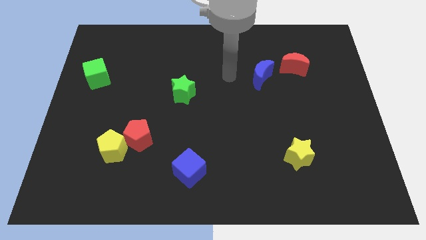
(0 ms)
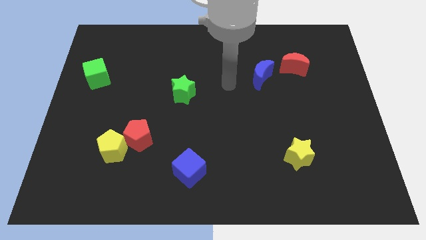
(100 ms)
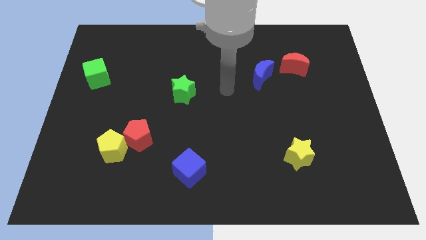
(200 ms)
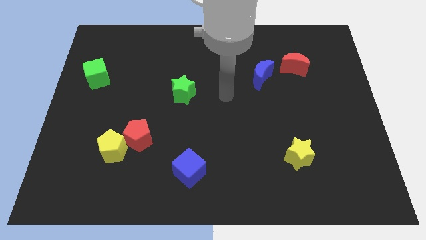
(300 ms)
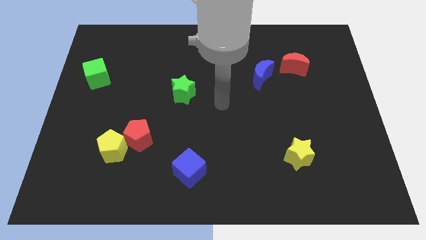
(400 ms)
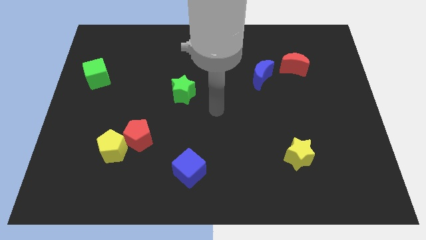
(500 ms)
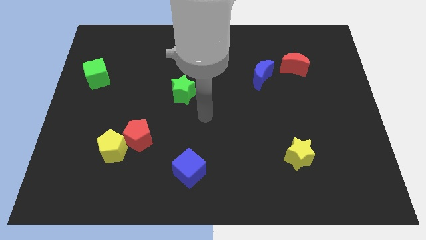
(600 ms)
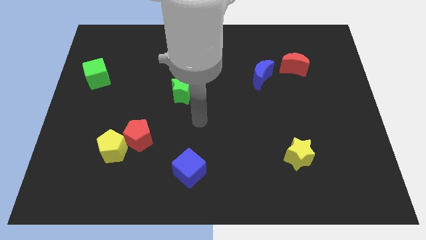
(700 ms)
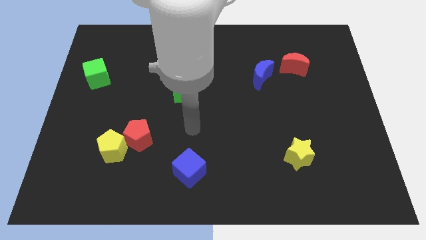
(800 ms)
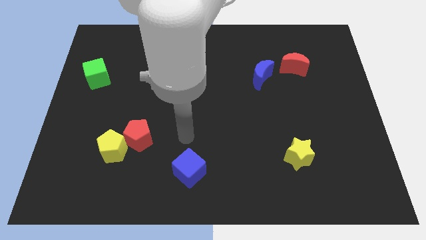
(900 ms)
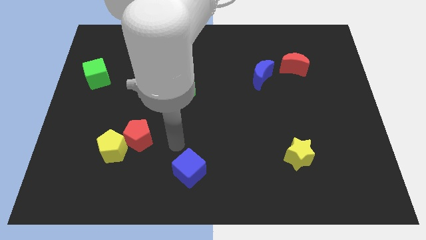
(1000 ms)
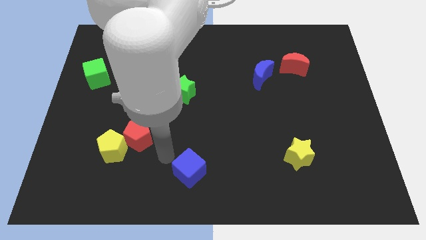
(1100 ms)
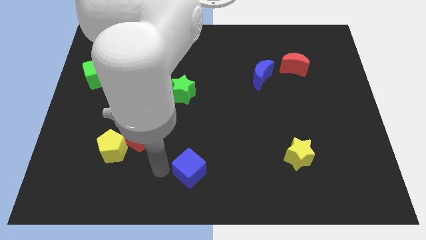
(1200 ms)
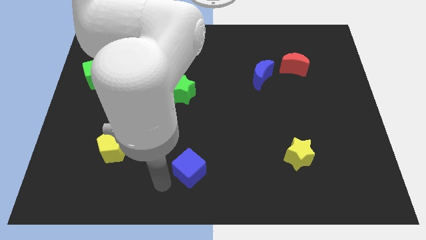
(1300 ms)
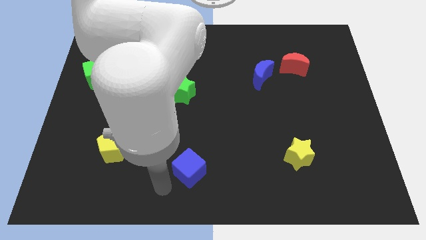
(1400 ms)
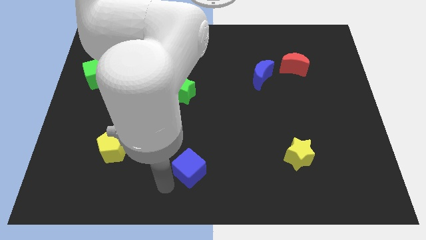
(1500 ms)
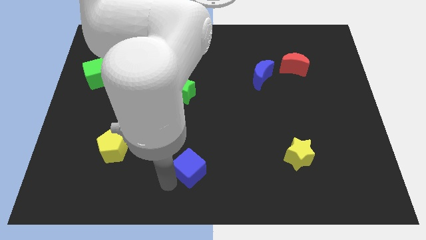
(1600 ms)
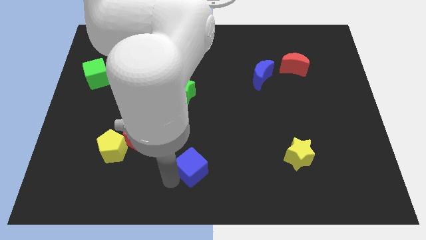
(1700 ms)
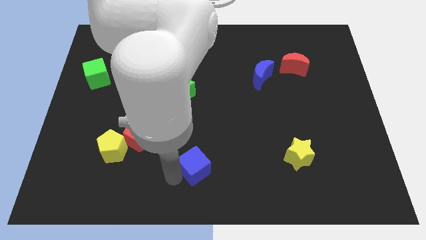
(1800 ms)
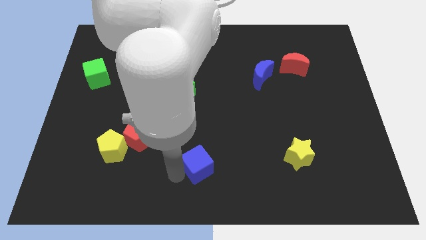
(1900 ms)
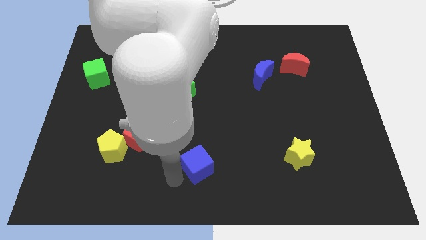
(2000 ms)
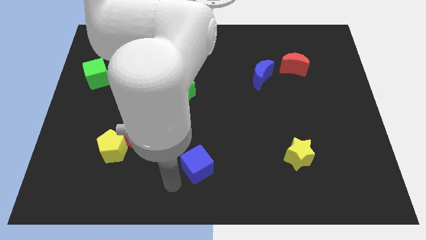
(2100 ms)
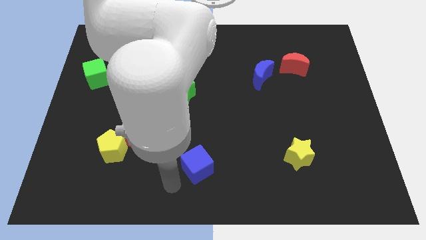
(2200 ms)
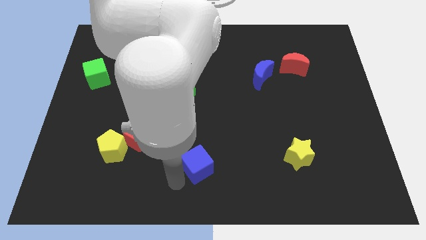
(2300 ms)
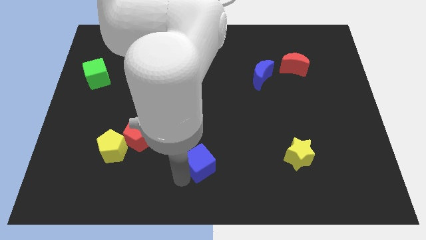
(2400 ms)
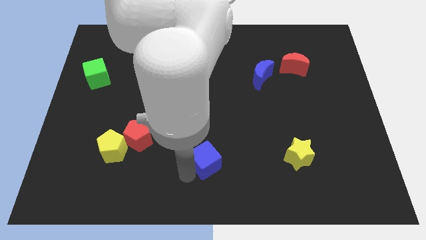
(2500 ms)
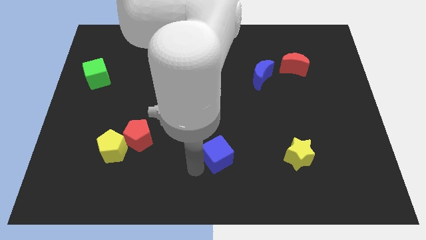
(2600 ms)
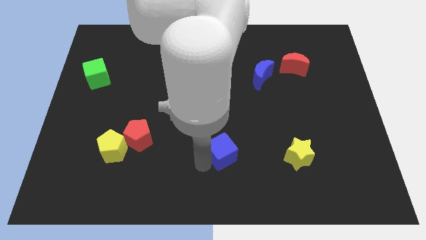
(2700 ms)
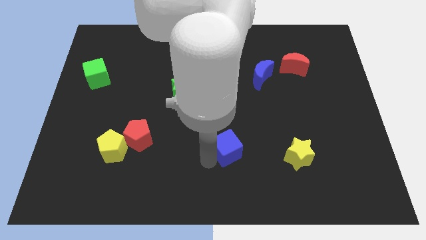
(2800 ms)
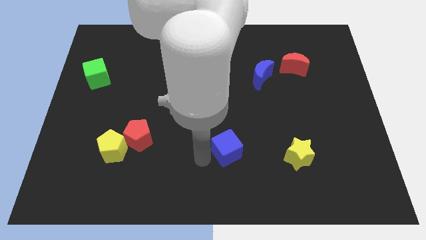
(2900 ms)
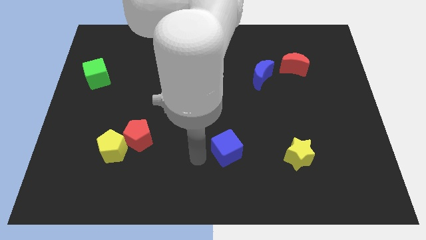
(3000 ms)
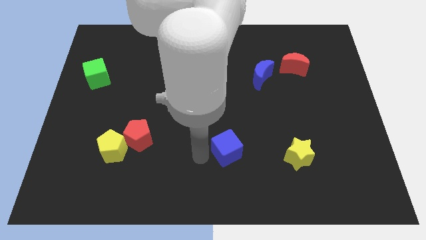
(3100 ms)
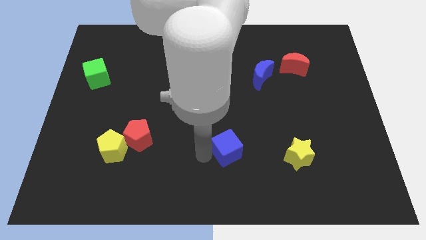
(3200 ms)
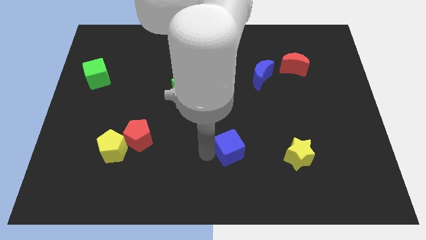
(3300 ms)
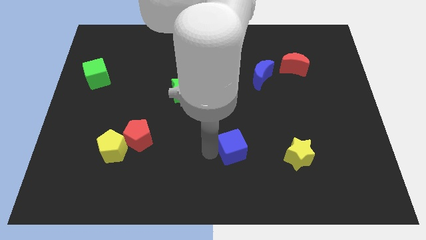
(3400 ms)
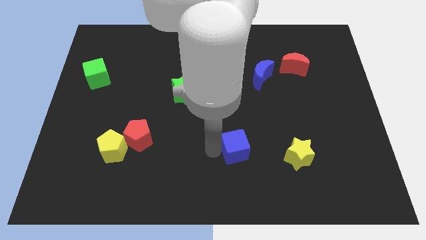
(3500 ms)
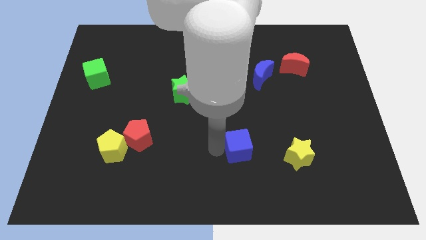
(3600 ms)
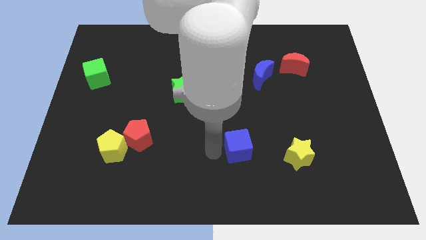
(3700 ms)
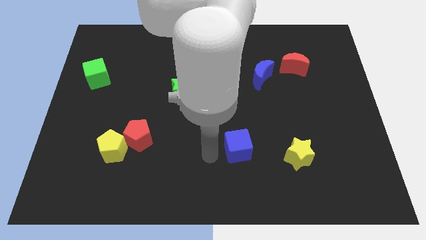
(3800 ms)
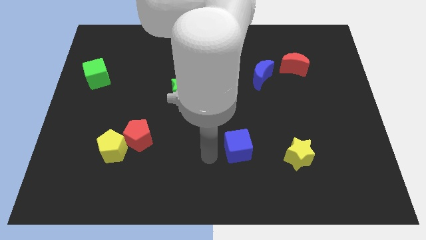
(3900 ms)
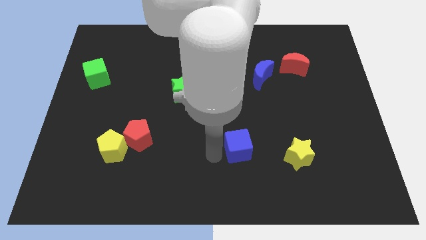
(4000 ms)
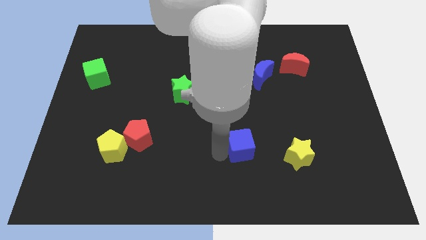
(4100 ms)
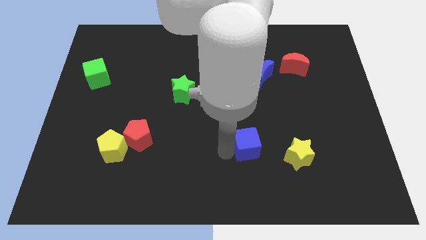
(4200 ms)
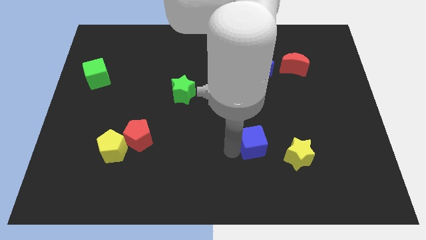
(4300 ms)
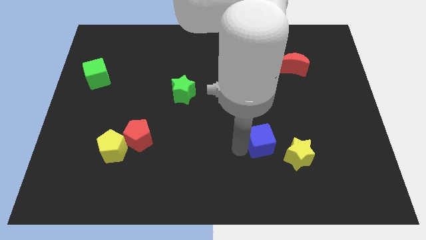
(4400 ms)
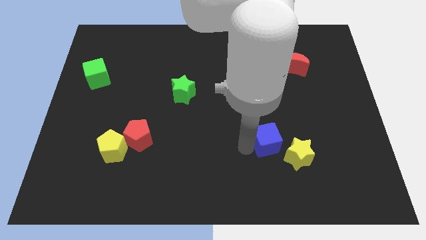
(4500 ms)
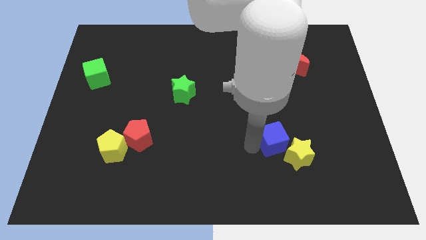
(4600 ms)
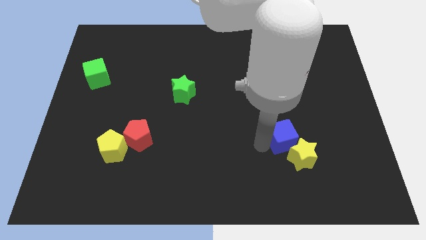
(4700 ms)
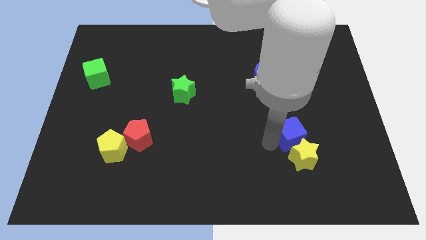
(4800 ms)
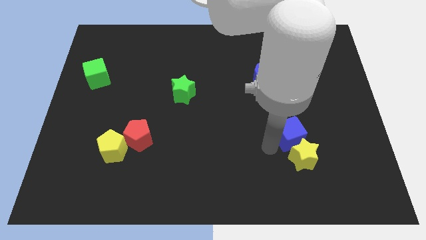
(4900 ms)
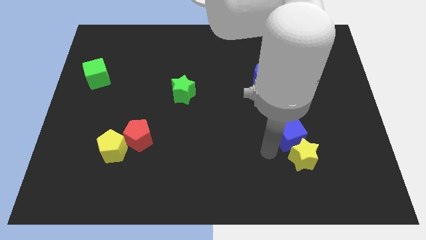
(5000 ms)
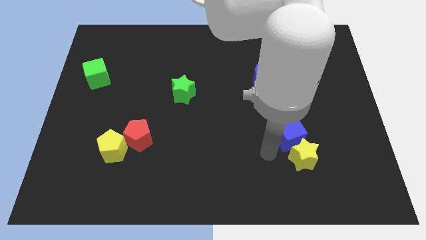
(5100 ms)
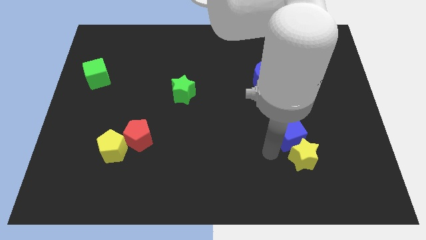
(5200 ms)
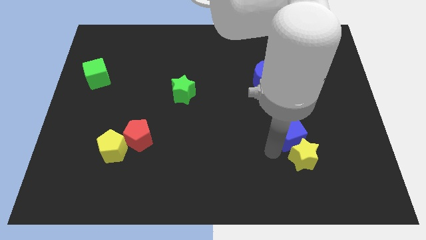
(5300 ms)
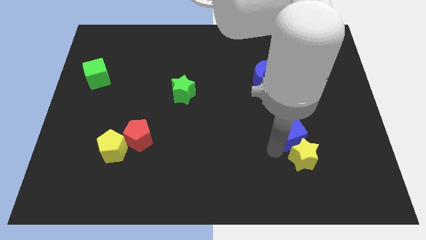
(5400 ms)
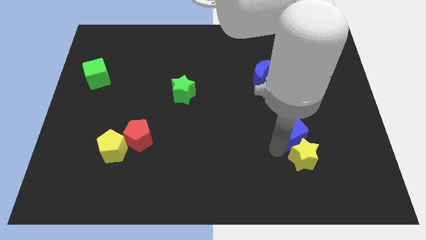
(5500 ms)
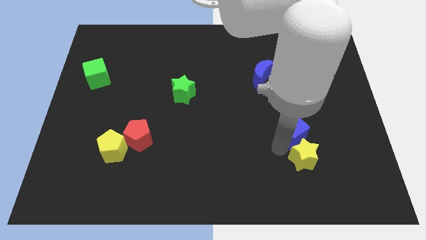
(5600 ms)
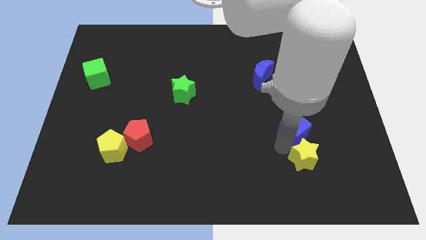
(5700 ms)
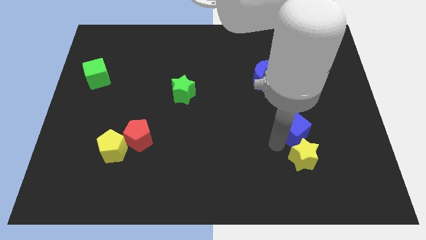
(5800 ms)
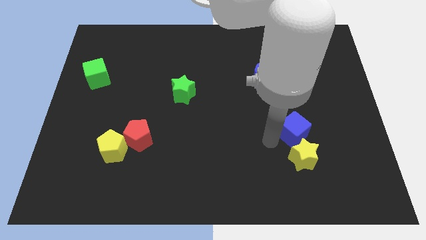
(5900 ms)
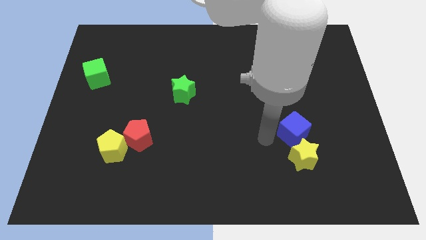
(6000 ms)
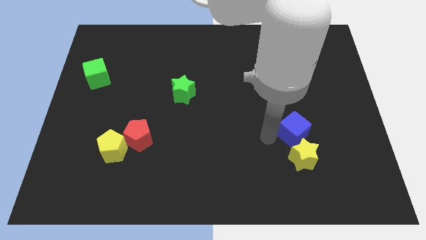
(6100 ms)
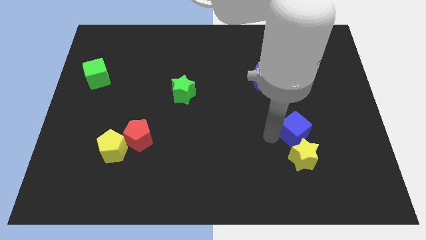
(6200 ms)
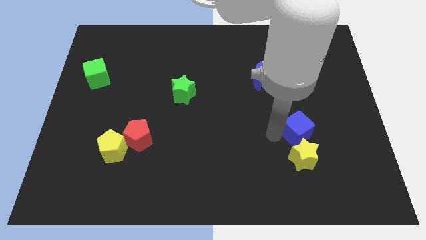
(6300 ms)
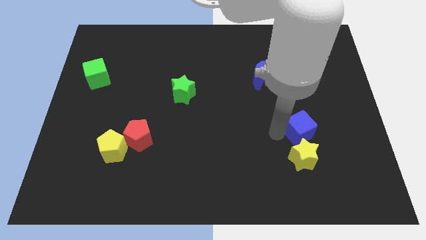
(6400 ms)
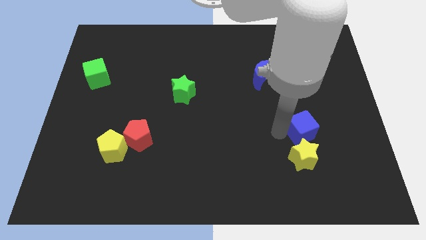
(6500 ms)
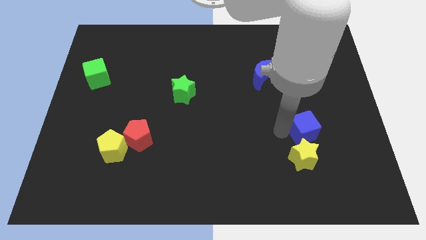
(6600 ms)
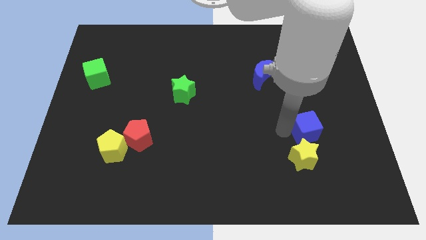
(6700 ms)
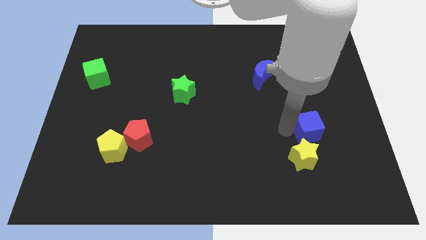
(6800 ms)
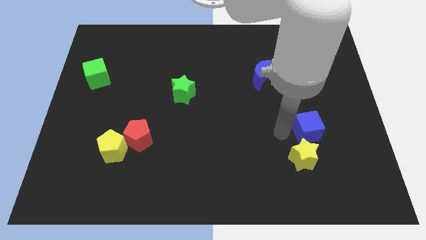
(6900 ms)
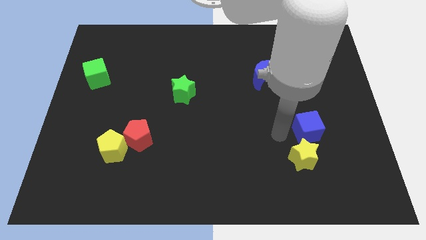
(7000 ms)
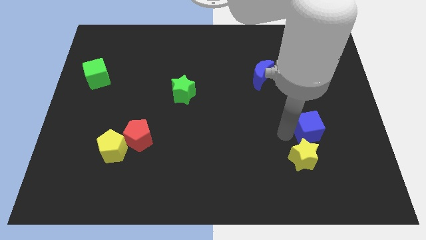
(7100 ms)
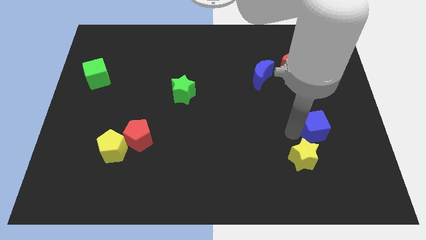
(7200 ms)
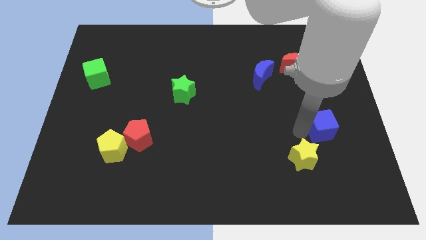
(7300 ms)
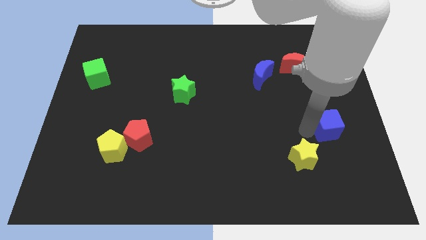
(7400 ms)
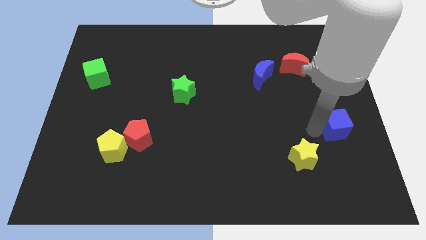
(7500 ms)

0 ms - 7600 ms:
put the blue cube to the center right
